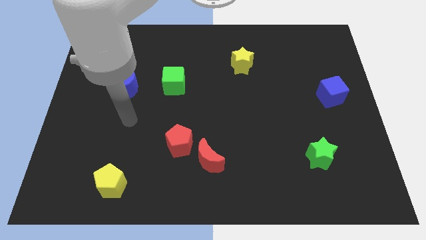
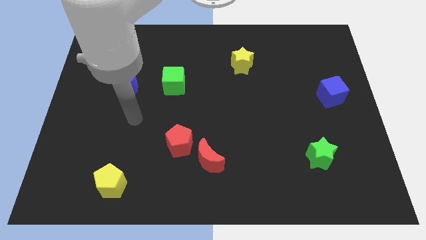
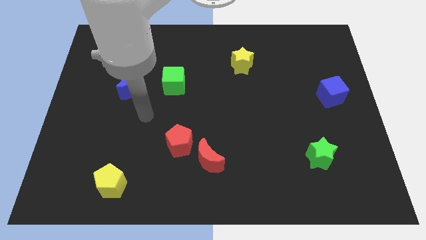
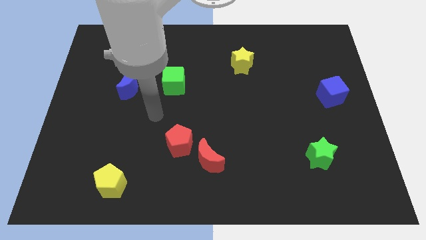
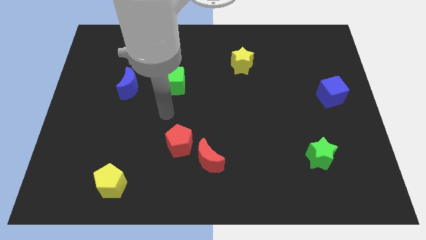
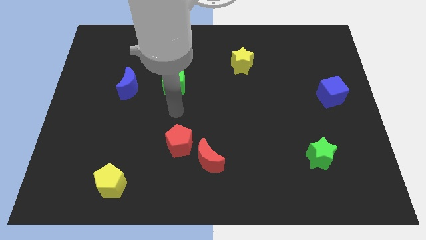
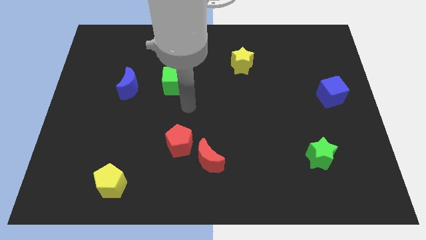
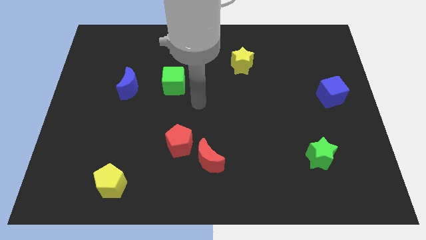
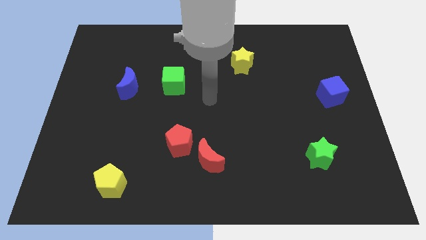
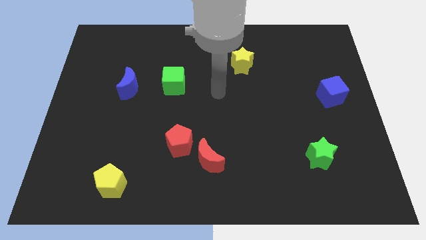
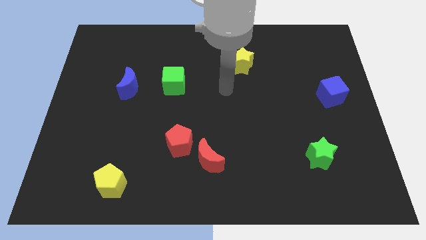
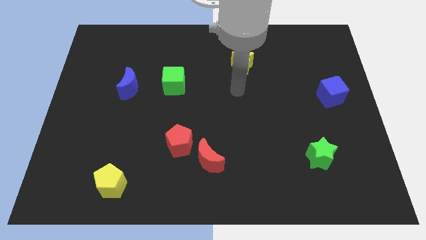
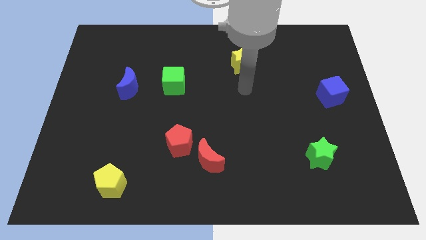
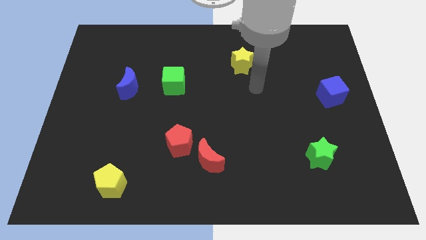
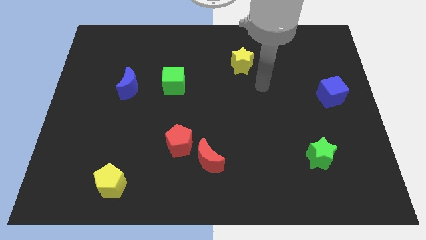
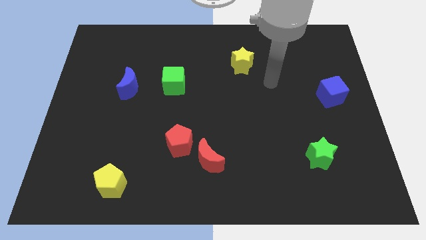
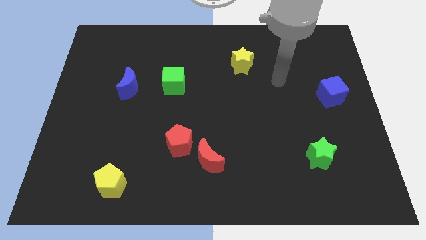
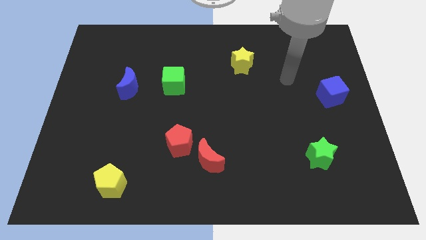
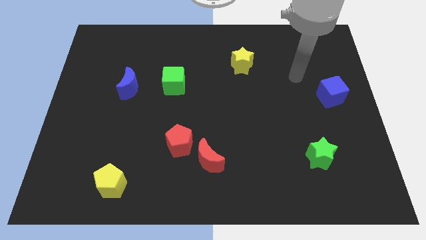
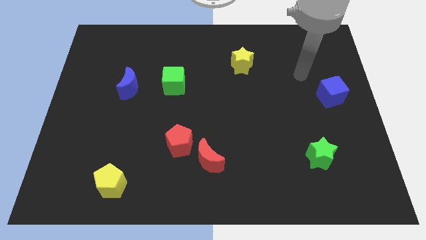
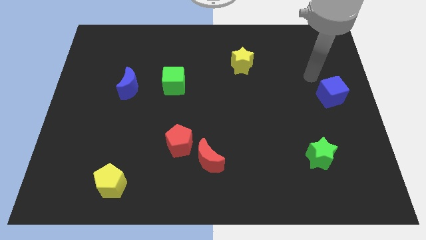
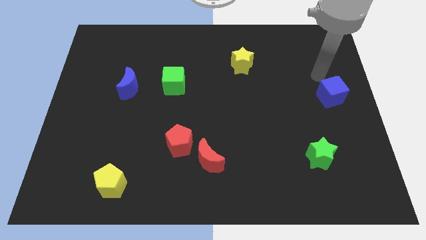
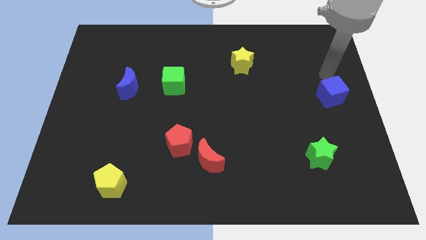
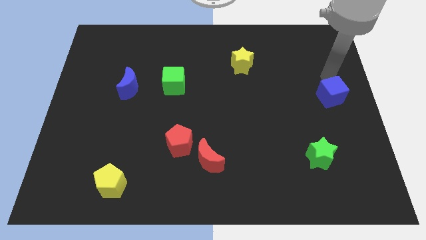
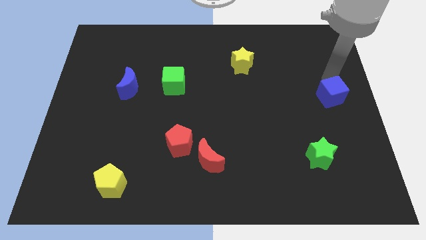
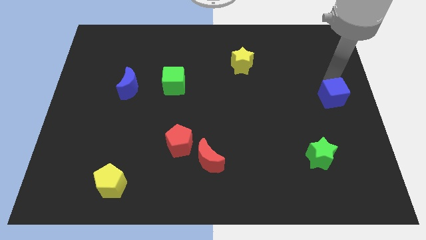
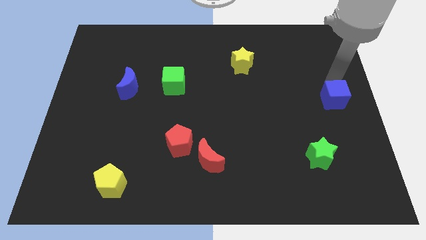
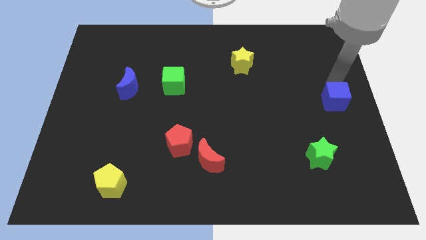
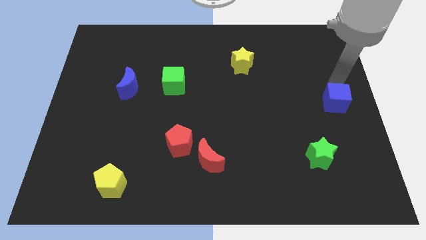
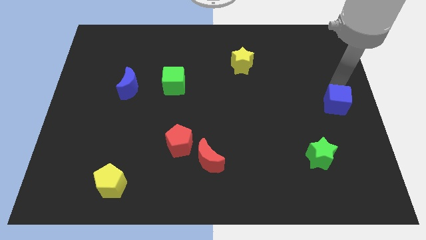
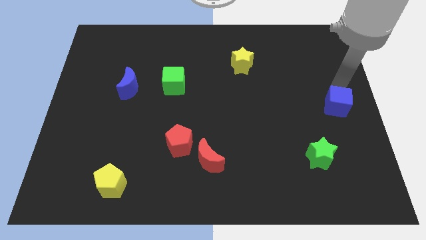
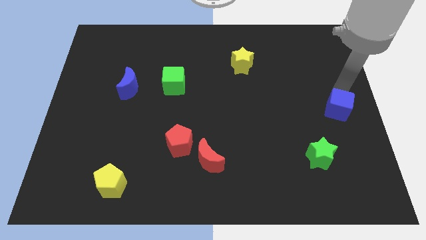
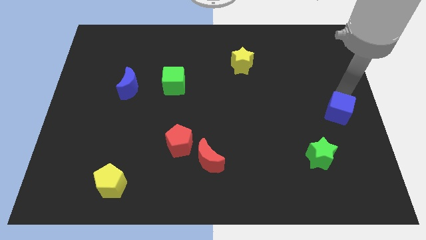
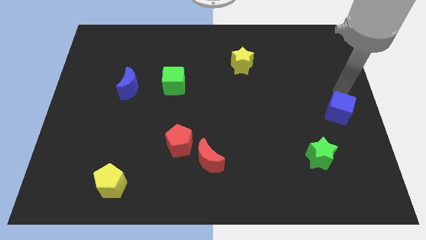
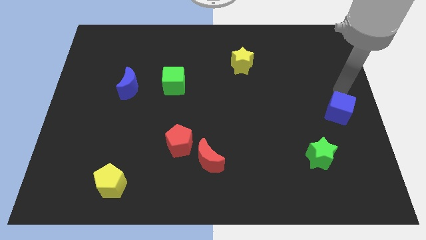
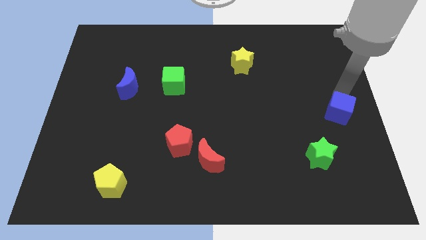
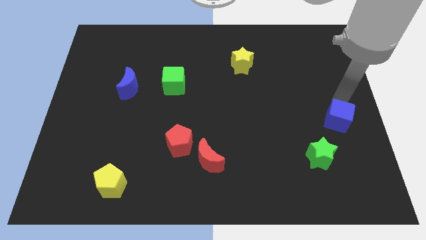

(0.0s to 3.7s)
slightly move the blue cube down

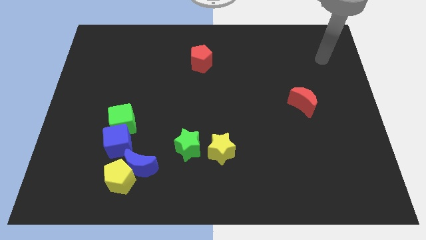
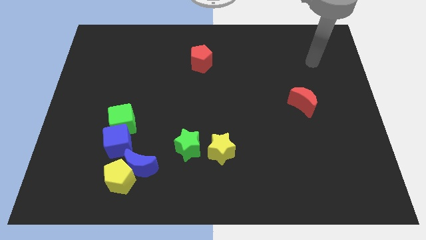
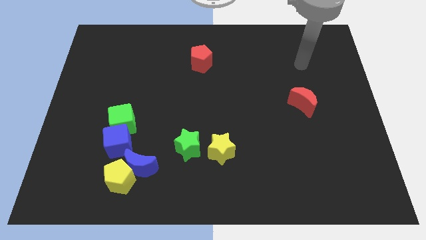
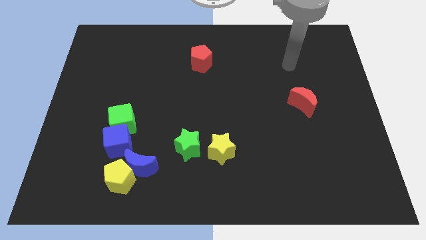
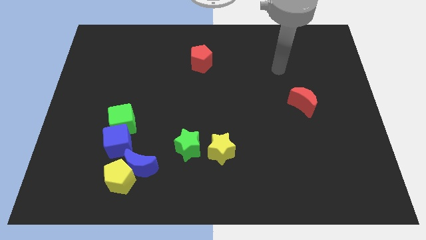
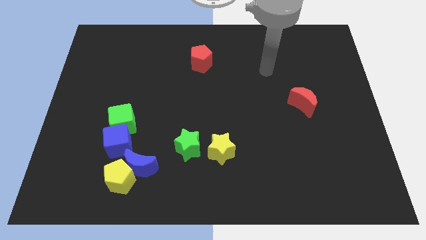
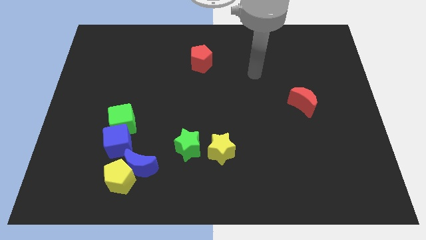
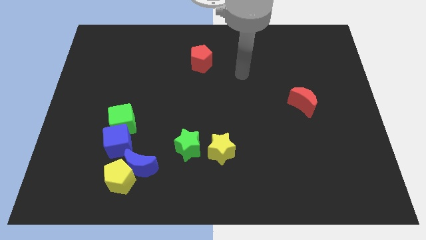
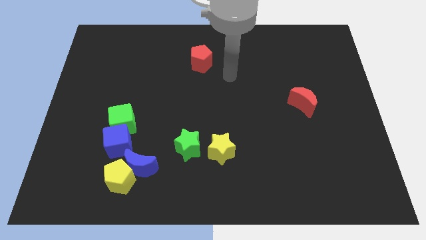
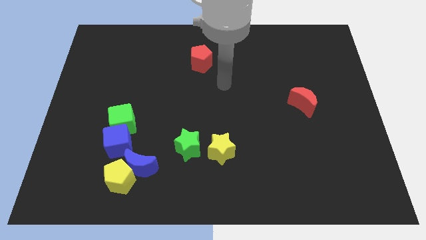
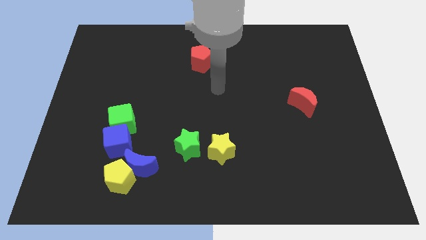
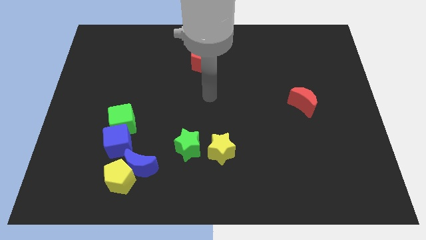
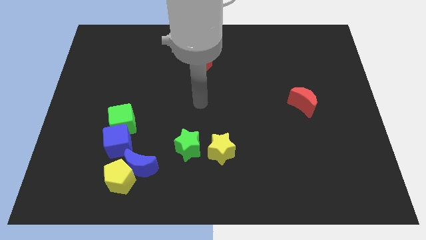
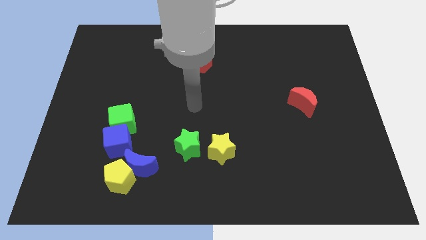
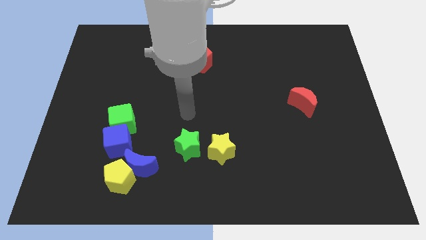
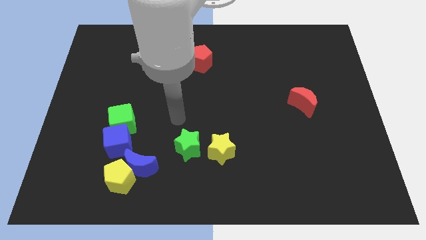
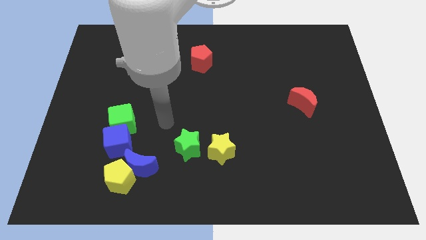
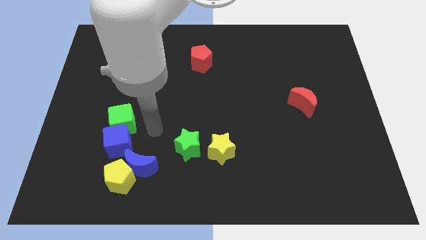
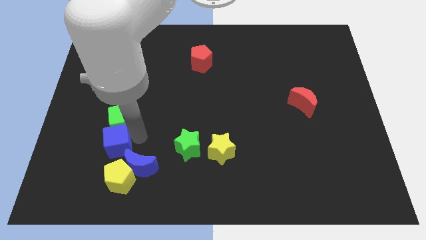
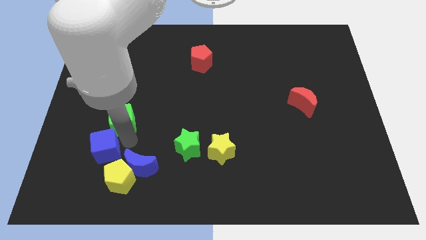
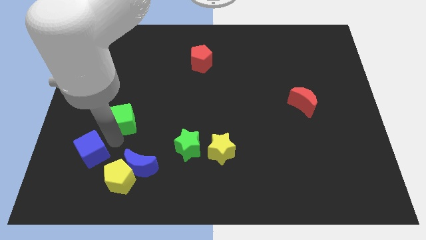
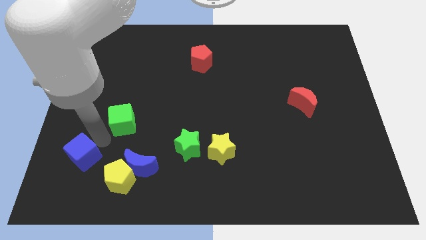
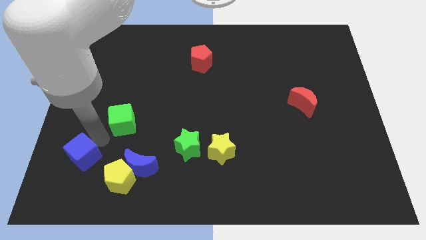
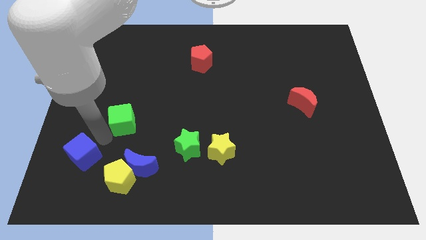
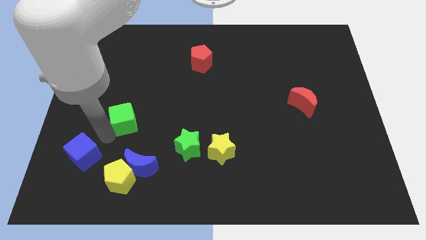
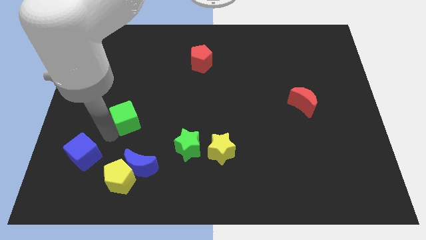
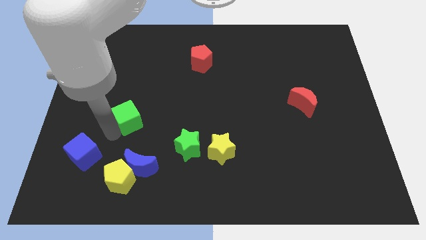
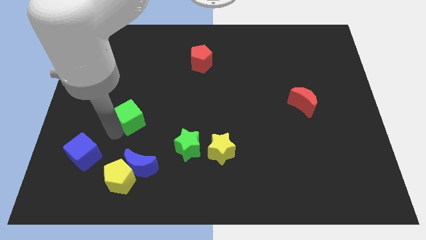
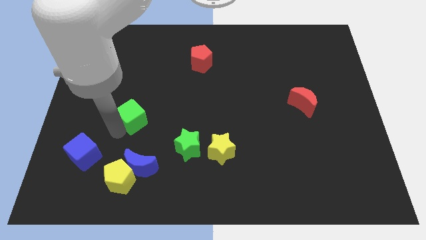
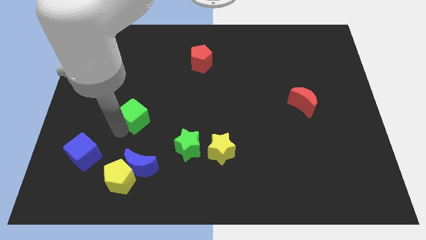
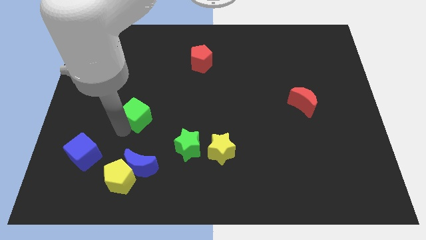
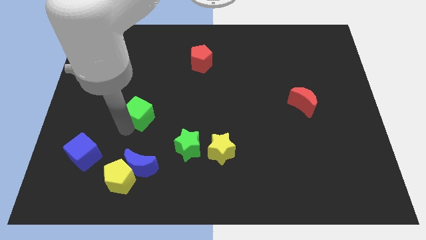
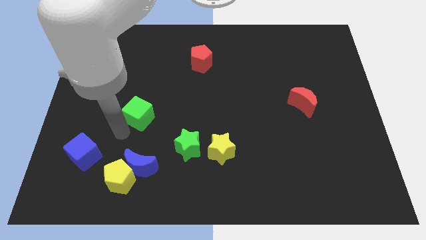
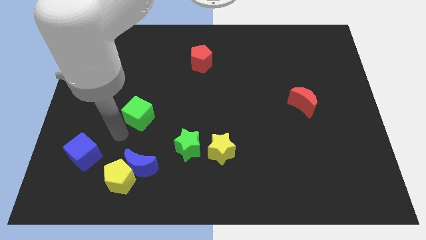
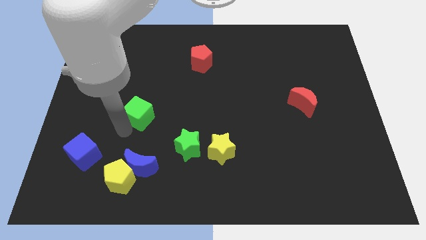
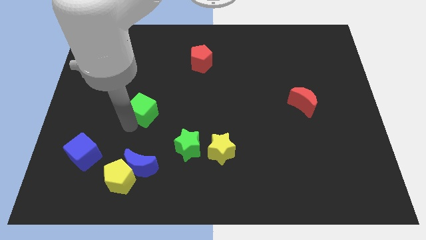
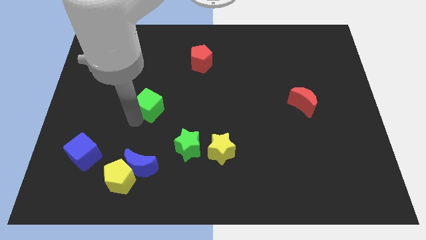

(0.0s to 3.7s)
slightly push the green cube upwards and to the right diagonally

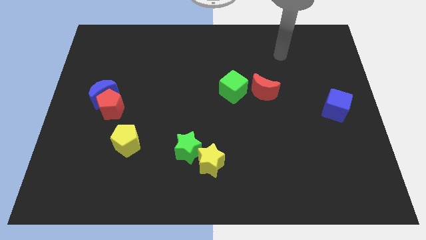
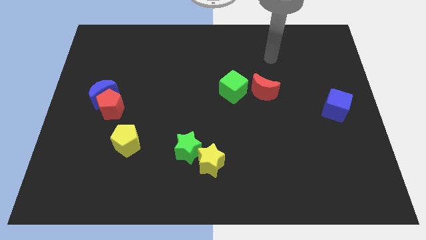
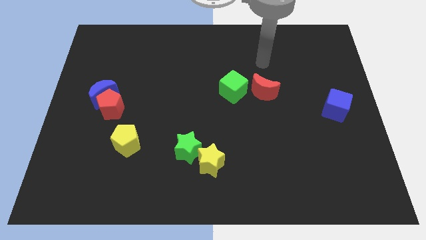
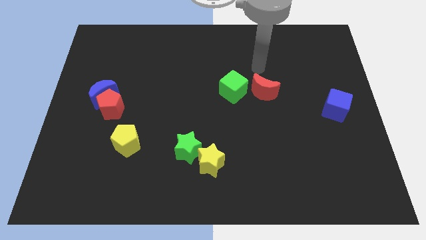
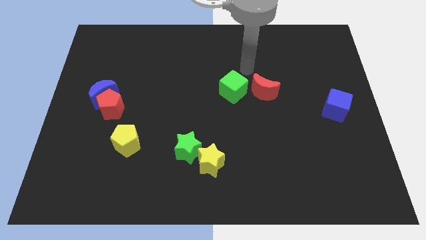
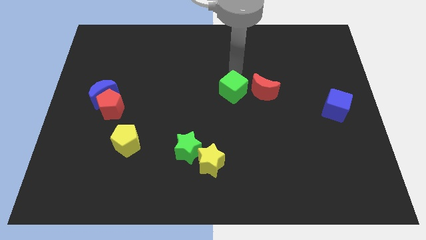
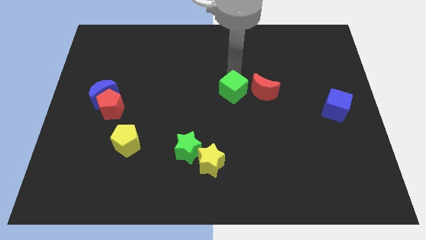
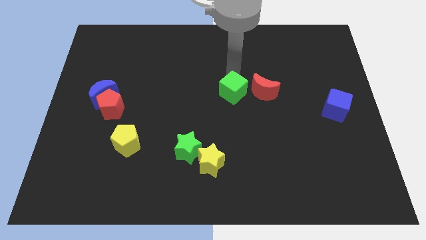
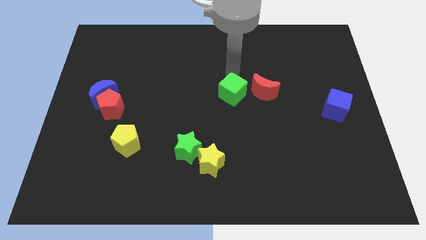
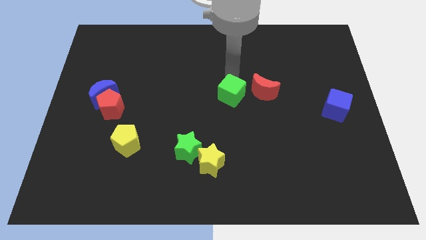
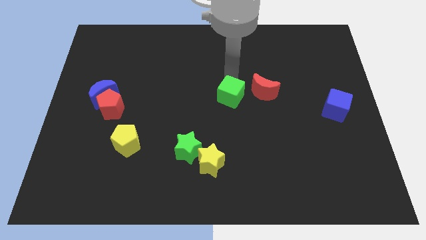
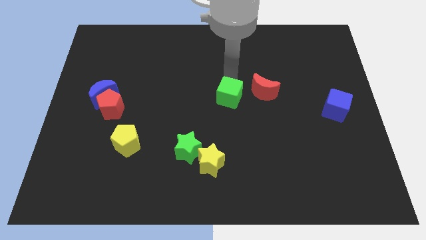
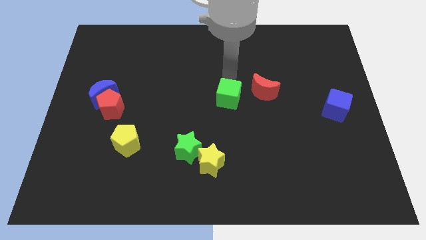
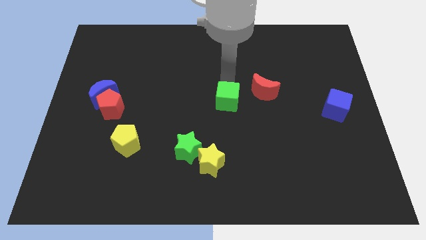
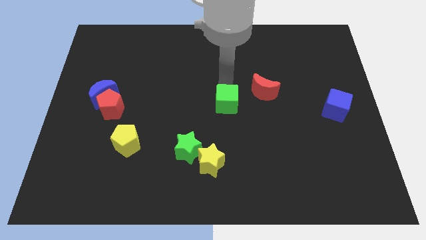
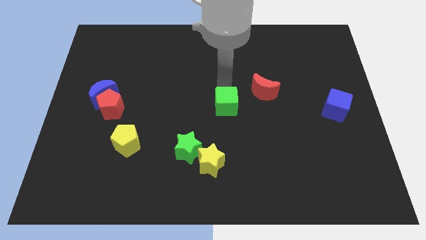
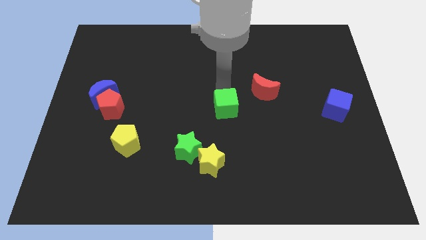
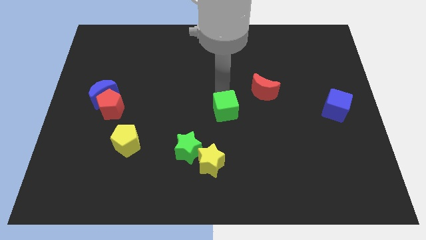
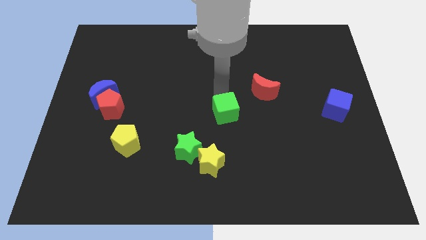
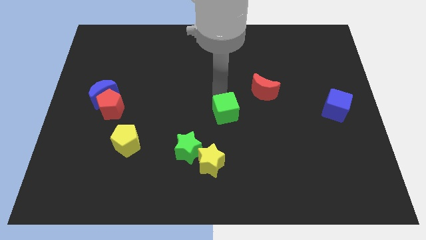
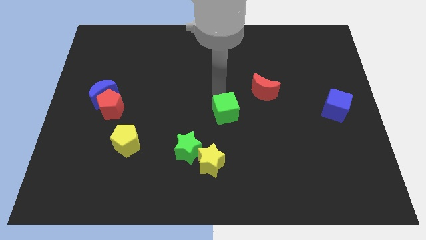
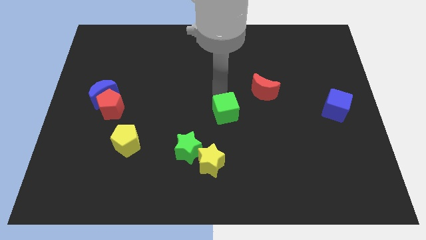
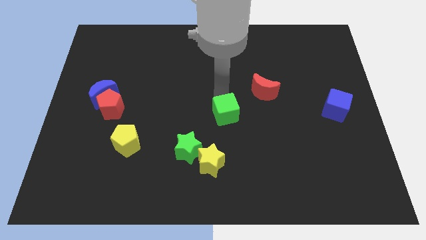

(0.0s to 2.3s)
slide the green cube down somewhat
